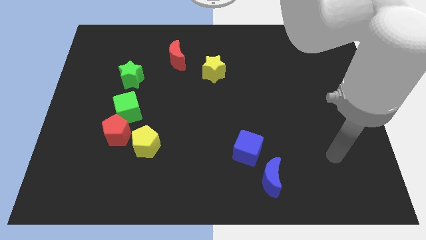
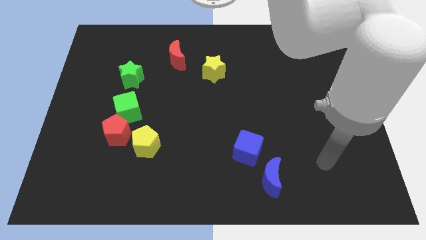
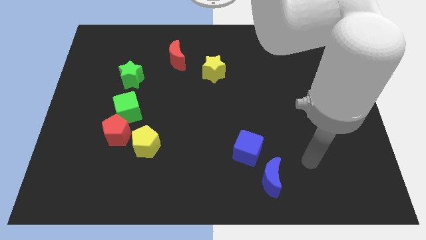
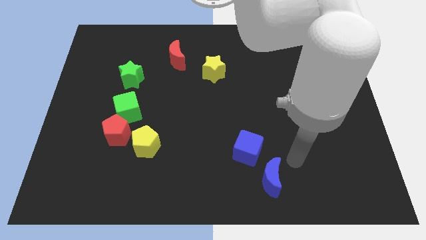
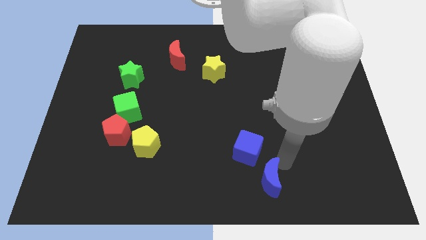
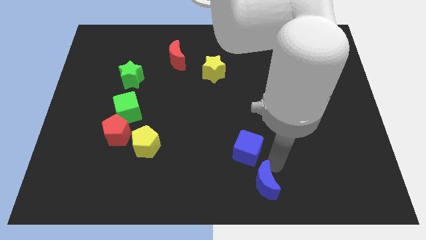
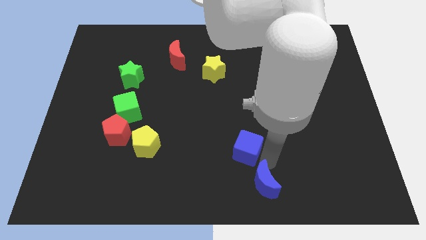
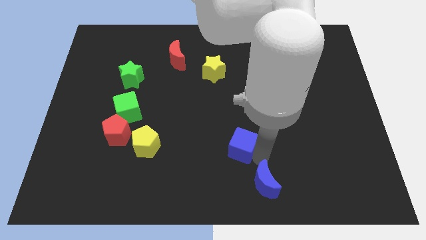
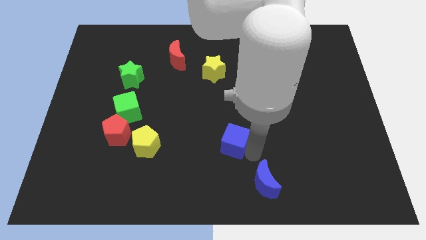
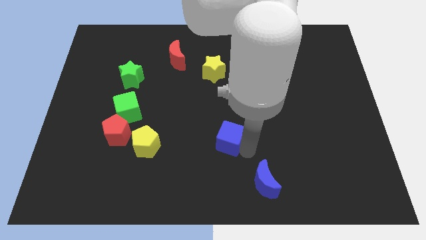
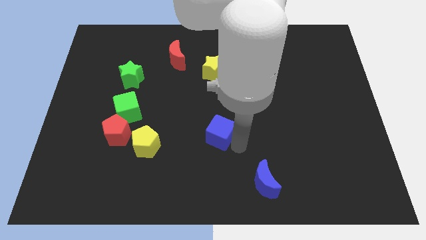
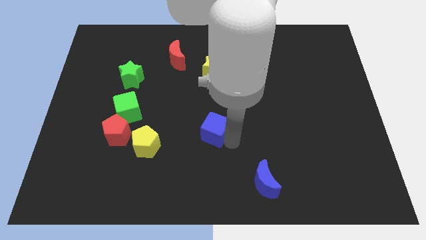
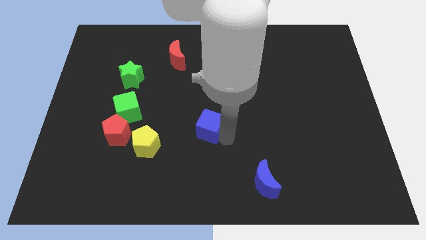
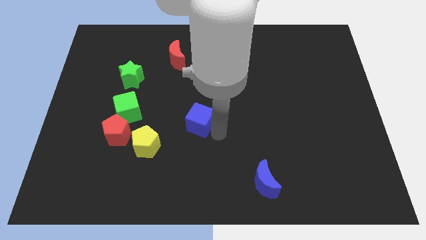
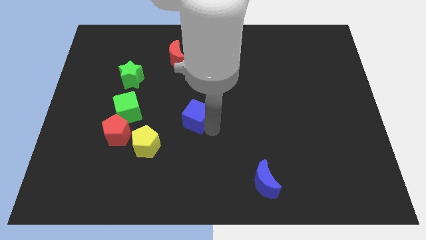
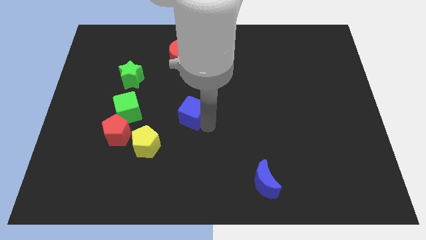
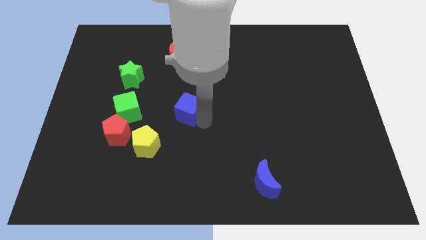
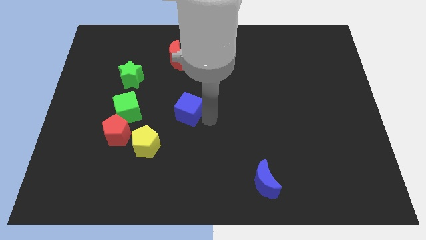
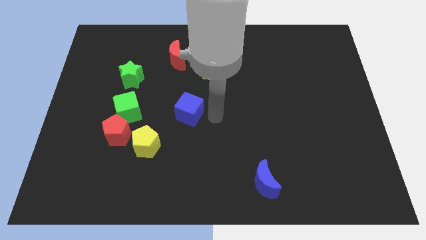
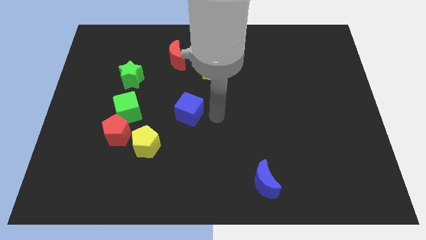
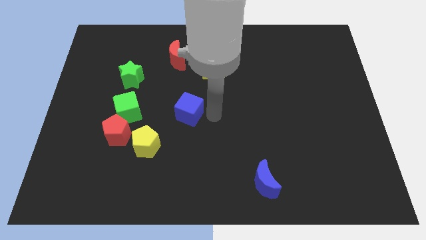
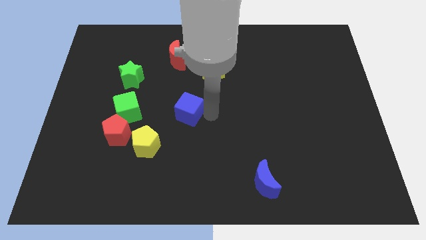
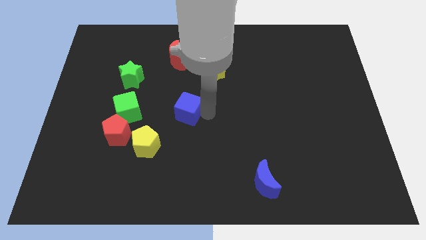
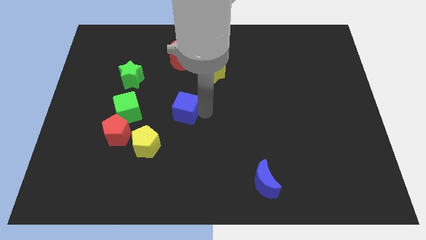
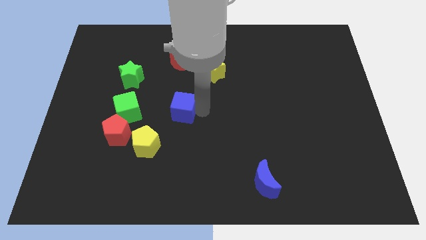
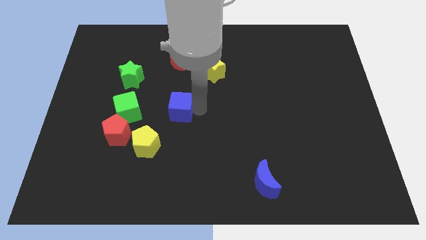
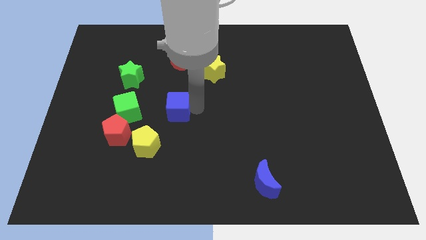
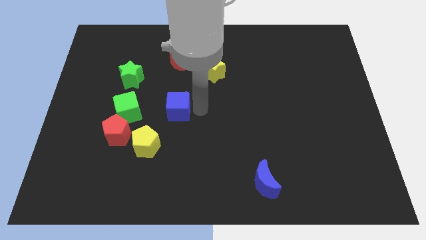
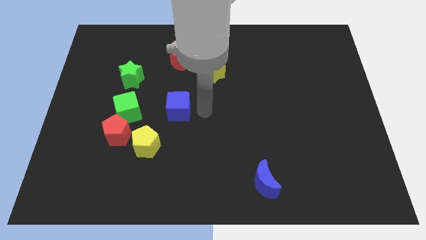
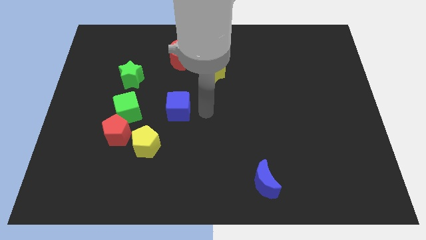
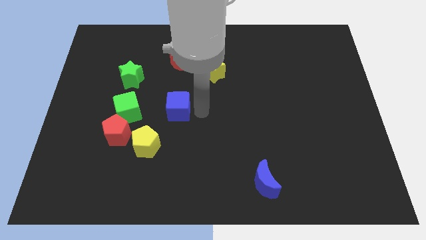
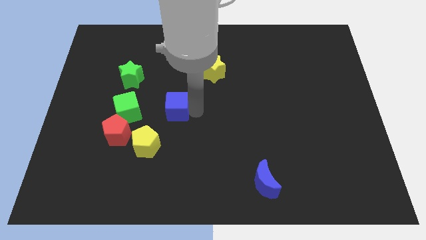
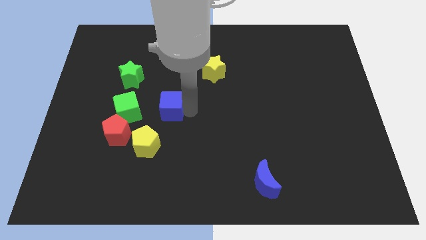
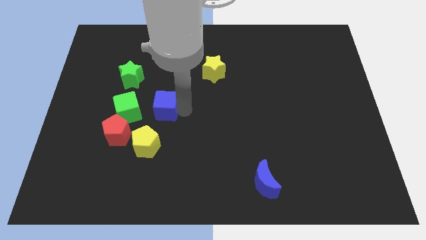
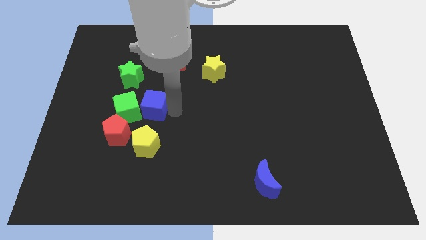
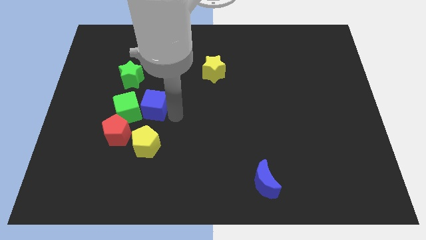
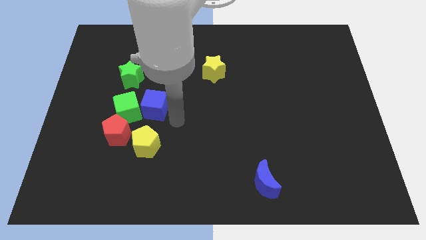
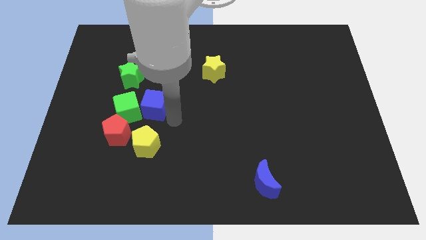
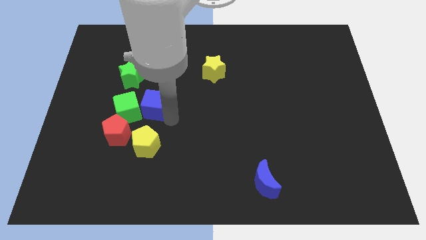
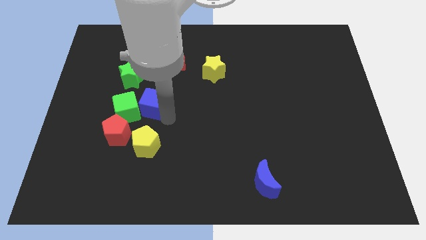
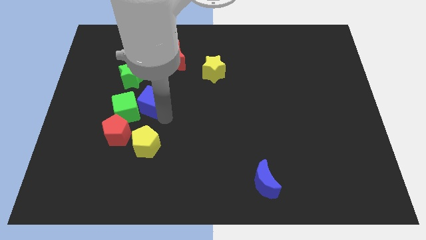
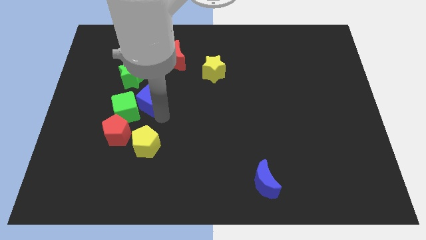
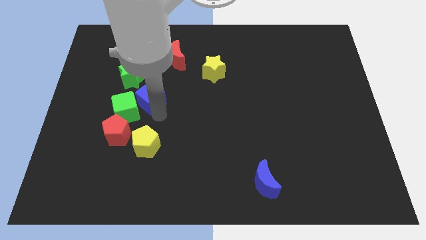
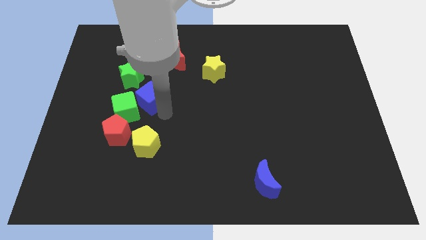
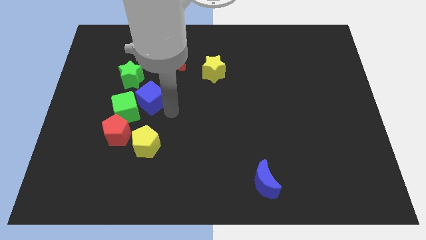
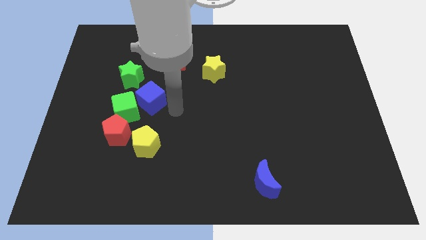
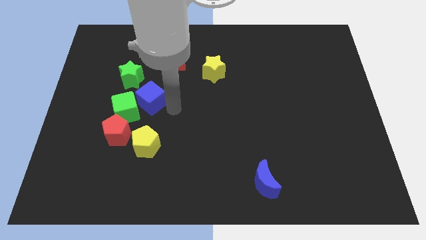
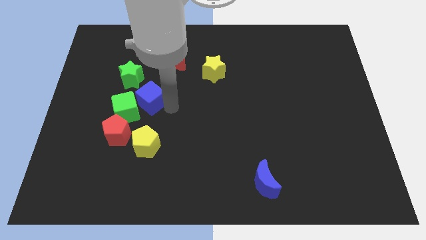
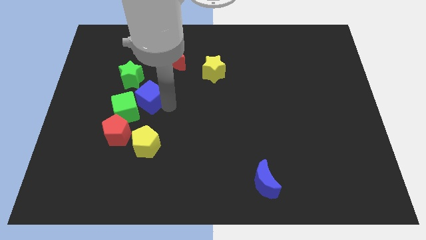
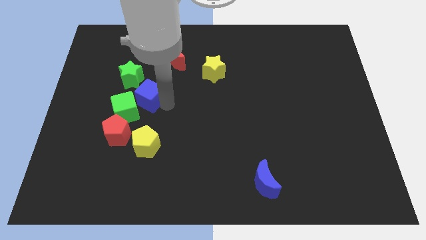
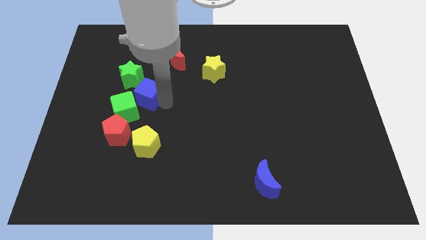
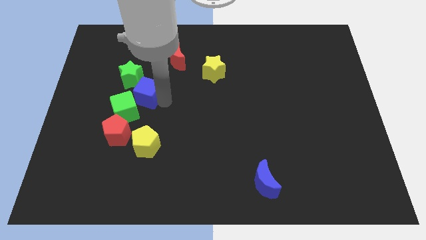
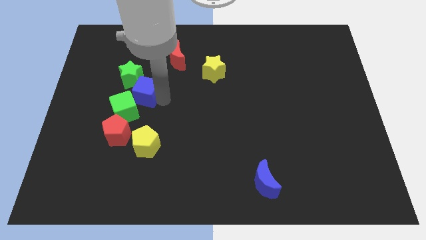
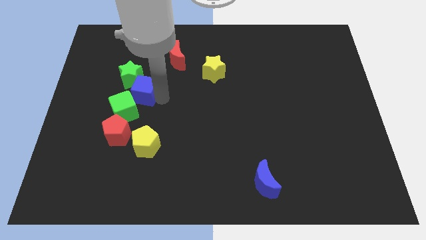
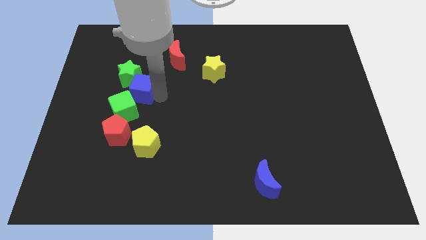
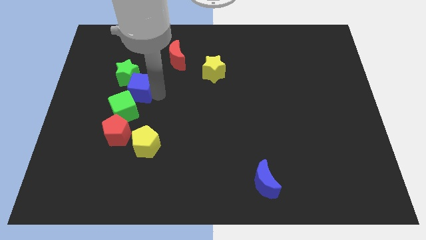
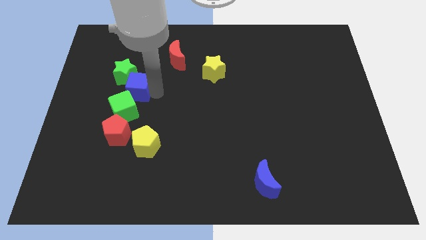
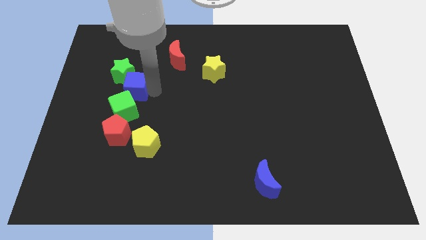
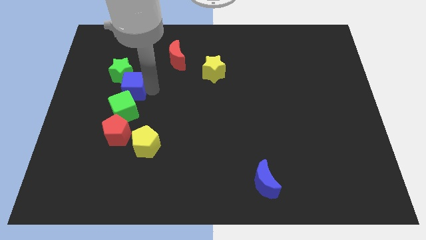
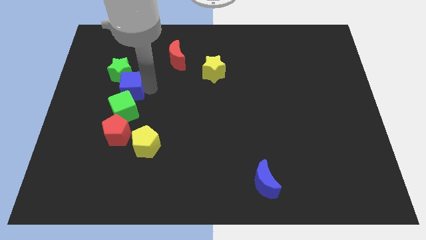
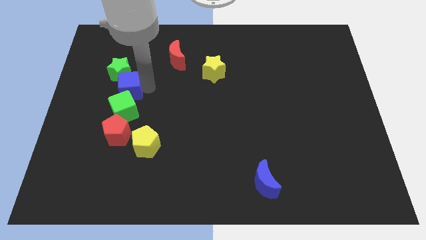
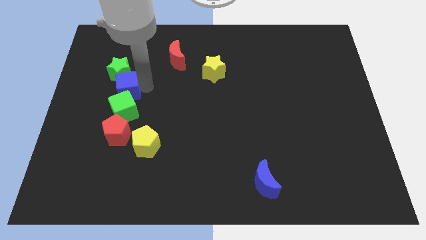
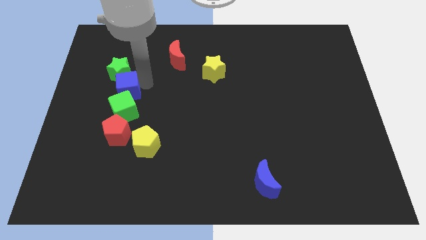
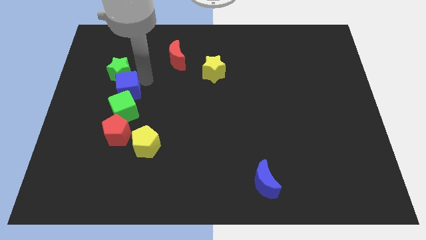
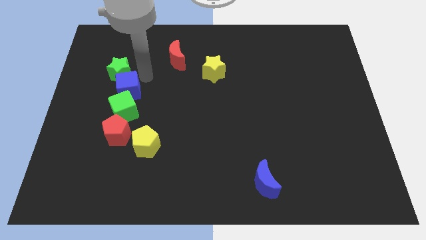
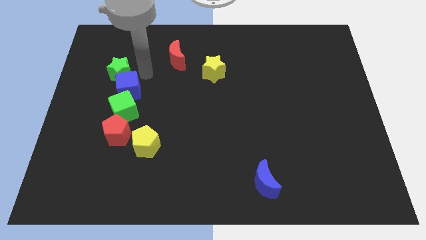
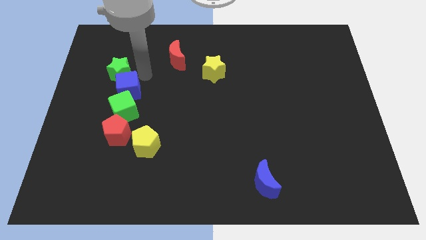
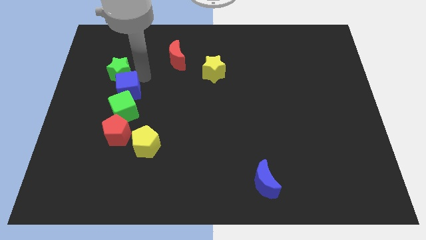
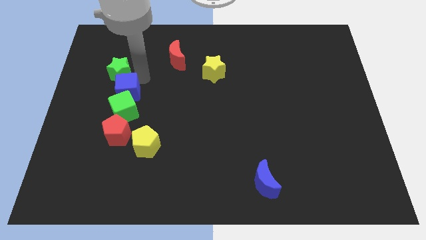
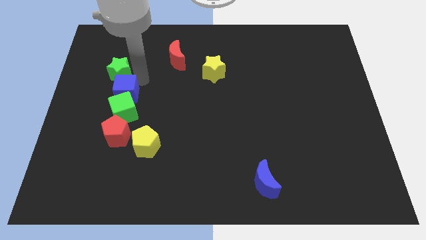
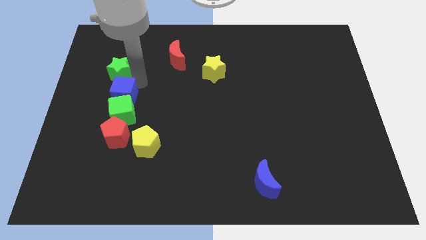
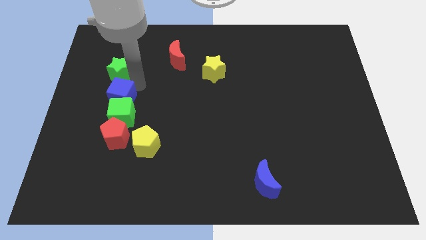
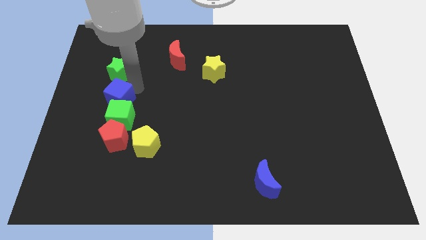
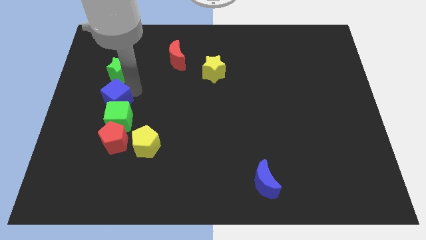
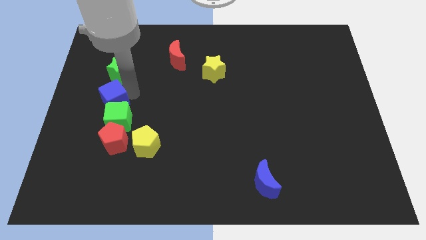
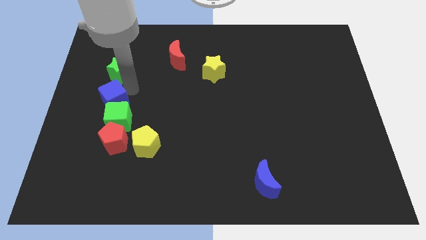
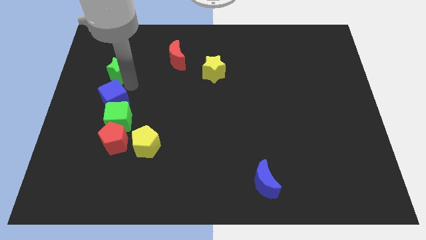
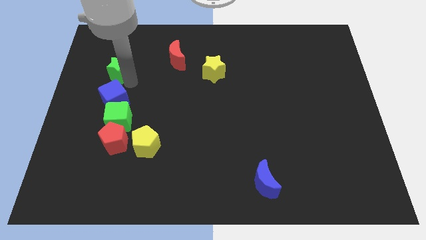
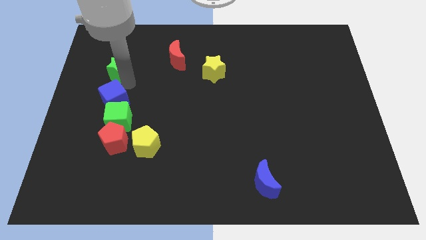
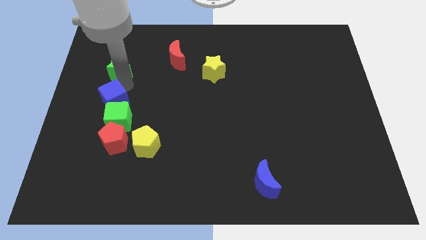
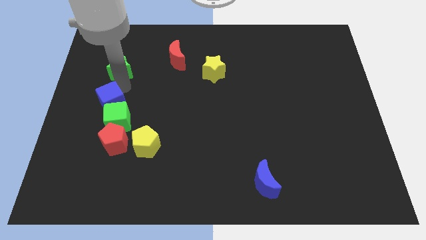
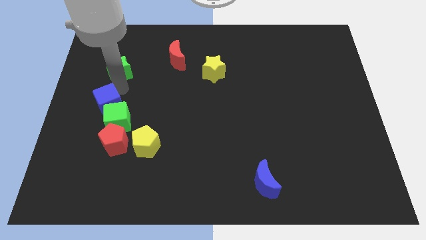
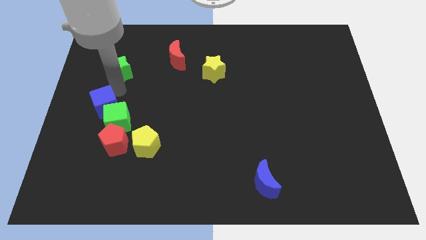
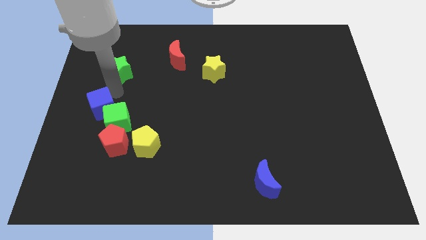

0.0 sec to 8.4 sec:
slide the blue cube to the top left side of the red pentagon
